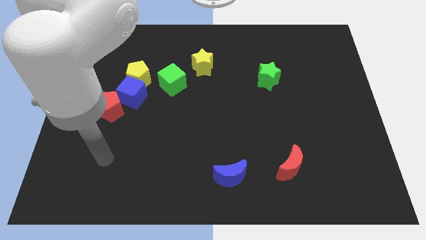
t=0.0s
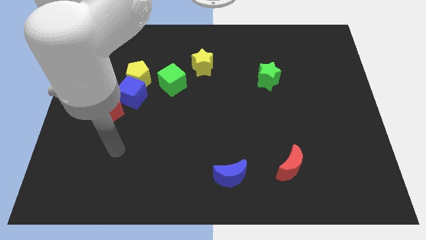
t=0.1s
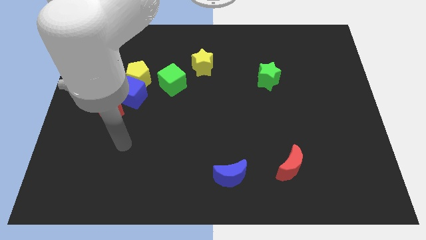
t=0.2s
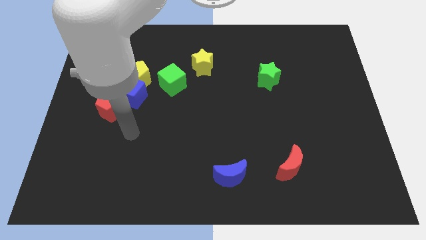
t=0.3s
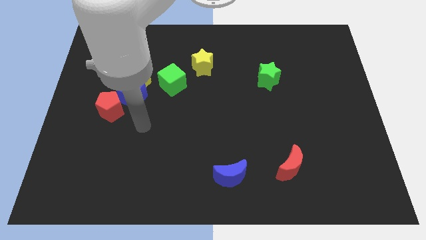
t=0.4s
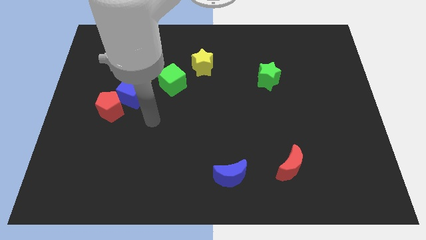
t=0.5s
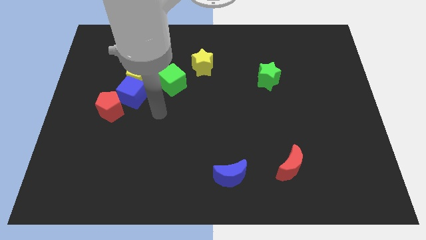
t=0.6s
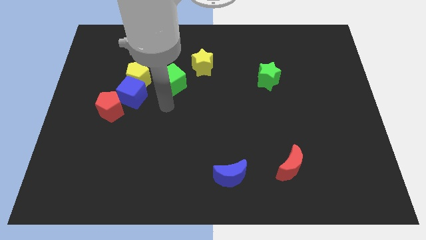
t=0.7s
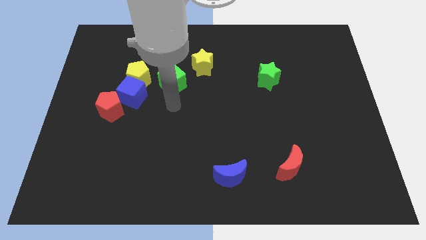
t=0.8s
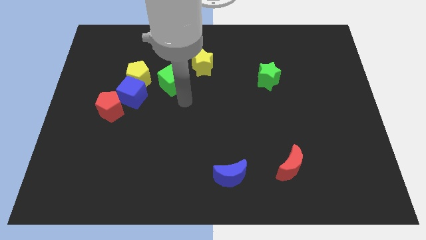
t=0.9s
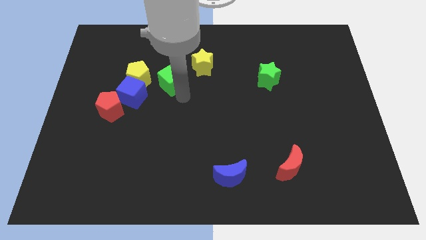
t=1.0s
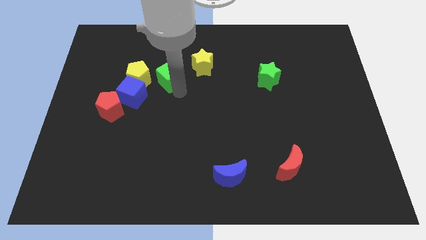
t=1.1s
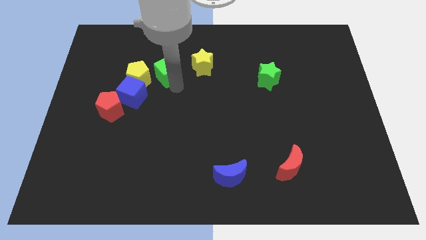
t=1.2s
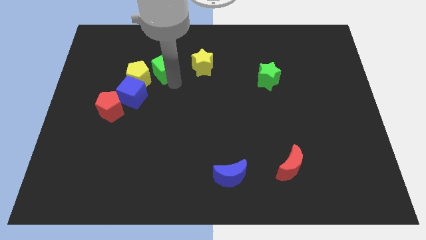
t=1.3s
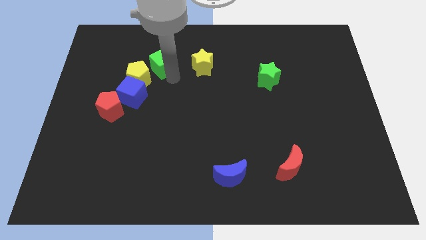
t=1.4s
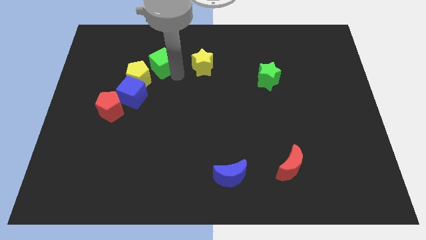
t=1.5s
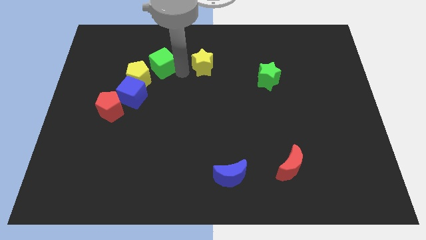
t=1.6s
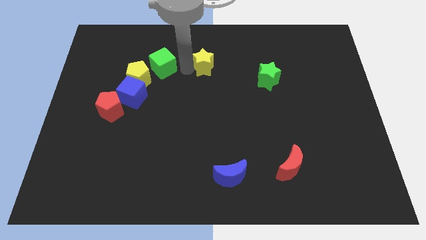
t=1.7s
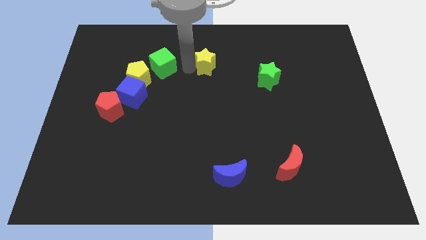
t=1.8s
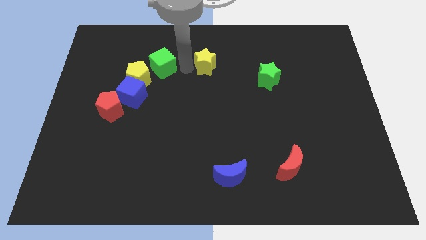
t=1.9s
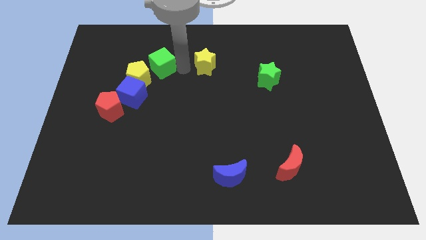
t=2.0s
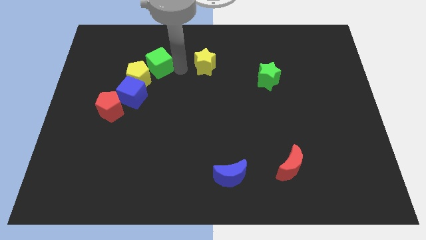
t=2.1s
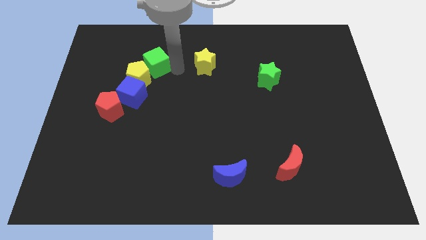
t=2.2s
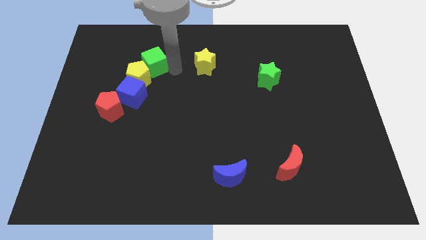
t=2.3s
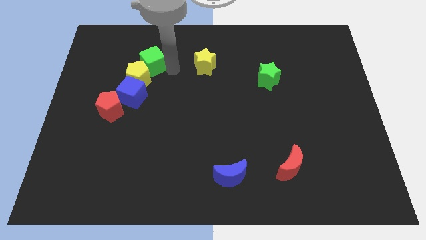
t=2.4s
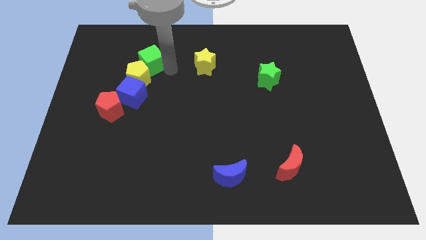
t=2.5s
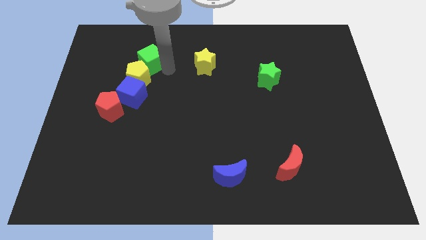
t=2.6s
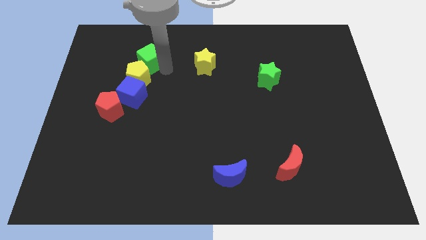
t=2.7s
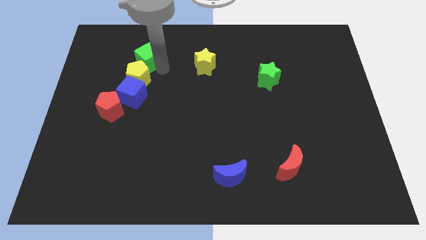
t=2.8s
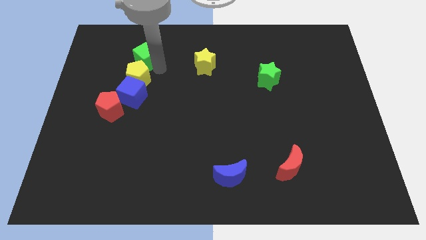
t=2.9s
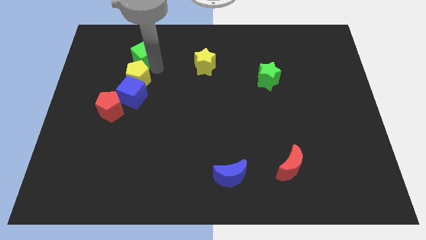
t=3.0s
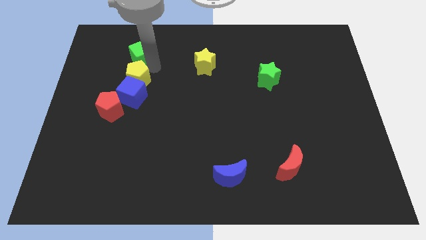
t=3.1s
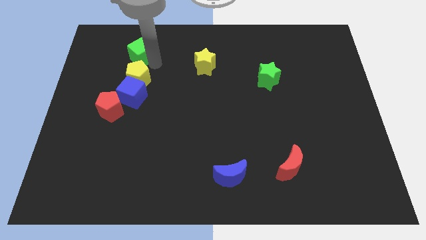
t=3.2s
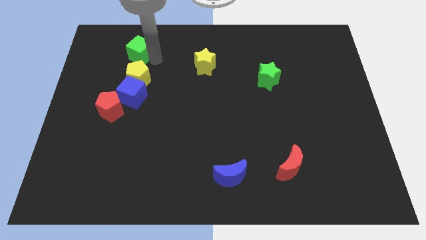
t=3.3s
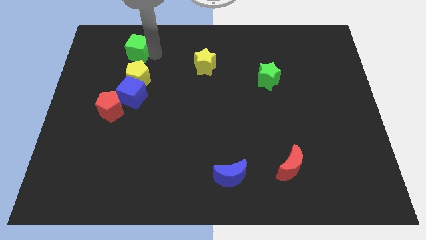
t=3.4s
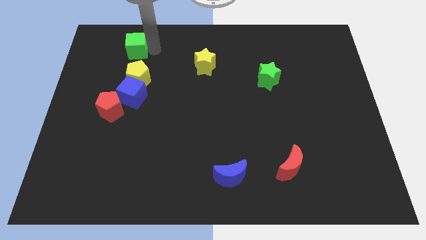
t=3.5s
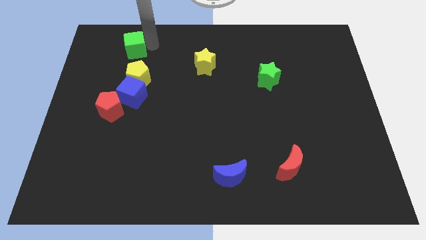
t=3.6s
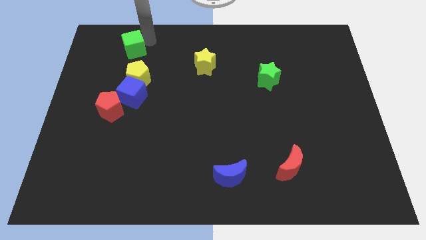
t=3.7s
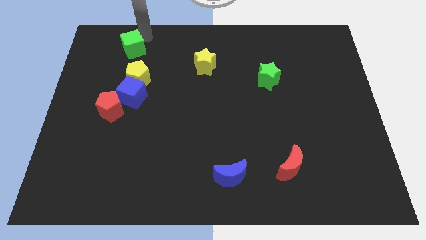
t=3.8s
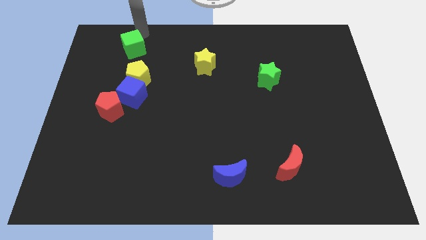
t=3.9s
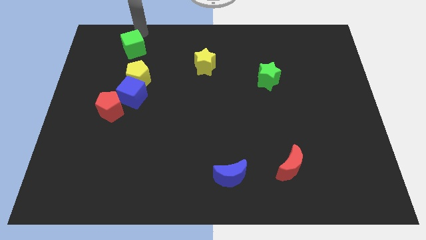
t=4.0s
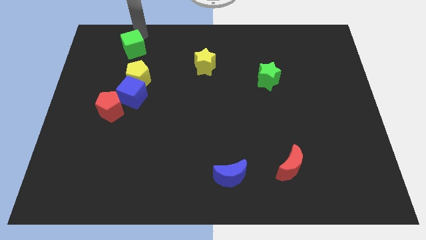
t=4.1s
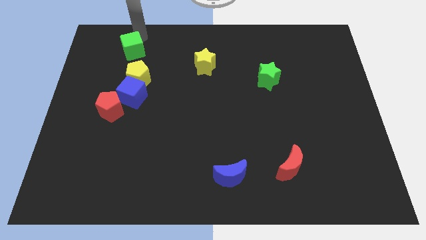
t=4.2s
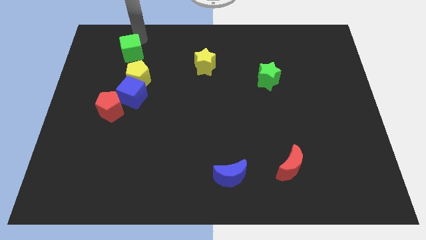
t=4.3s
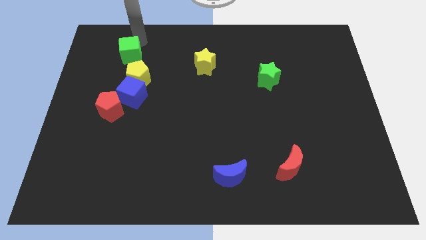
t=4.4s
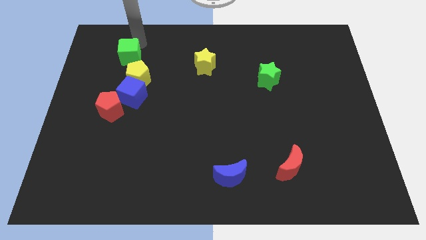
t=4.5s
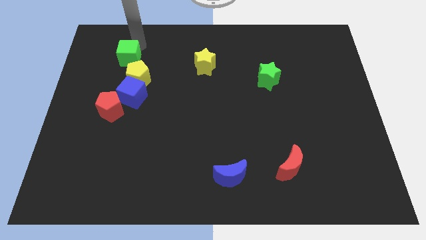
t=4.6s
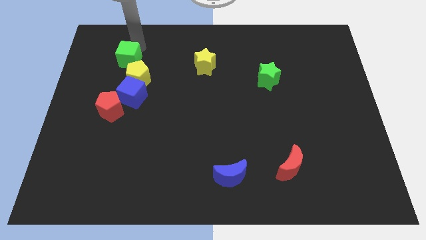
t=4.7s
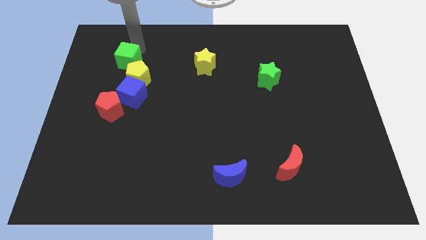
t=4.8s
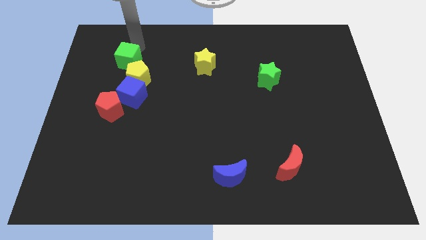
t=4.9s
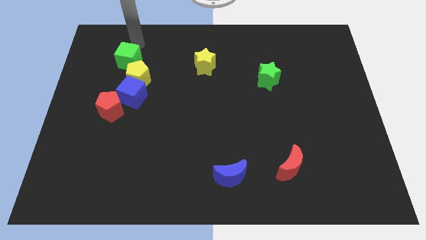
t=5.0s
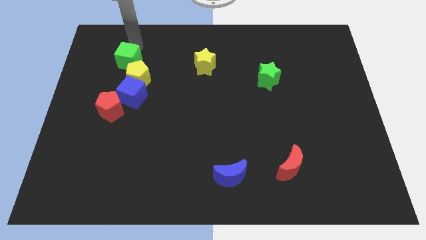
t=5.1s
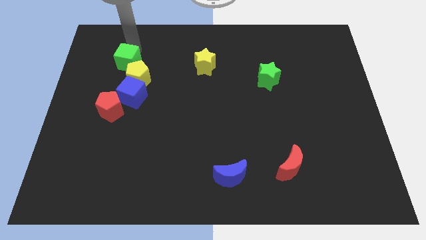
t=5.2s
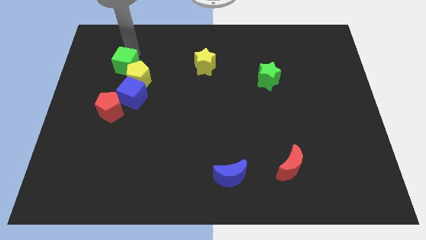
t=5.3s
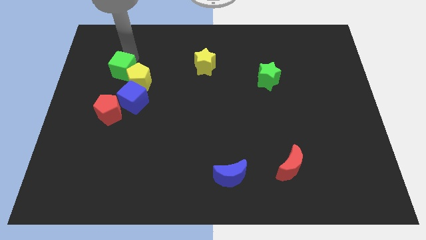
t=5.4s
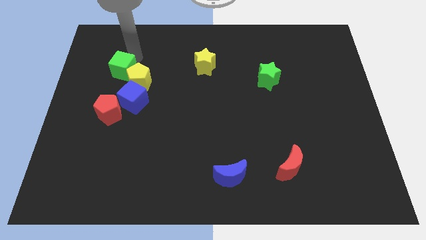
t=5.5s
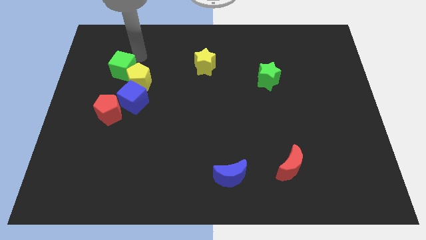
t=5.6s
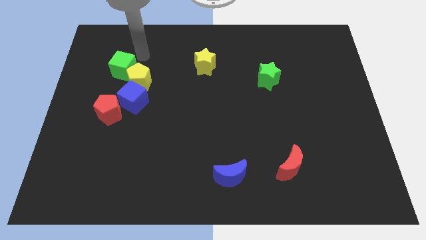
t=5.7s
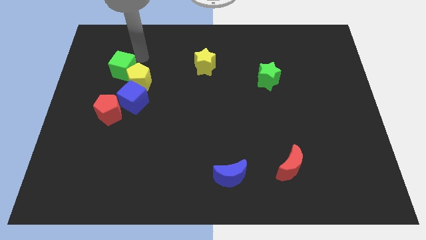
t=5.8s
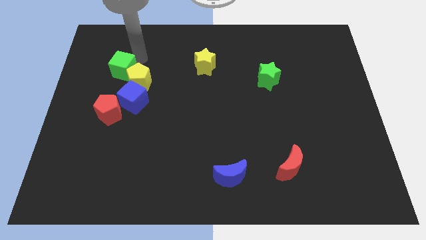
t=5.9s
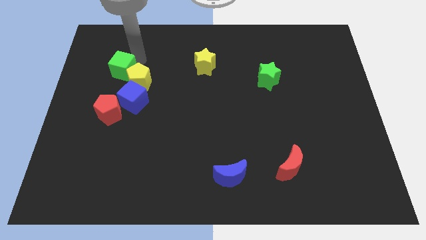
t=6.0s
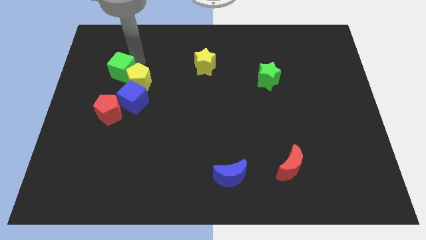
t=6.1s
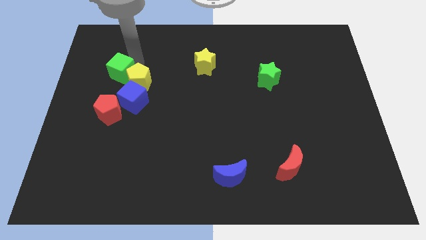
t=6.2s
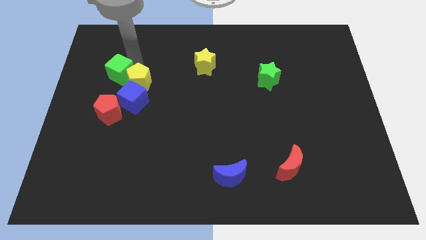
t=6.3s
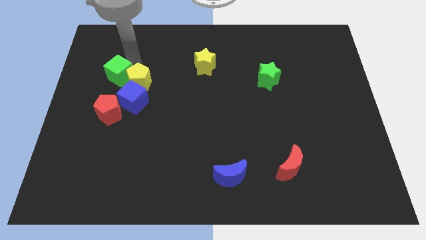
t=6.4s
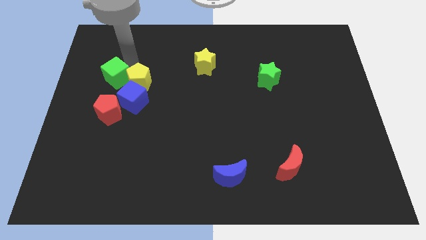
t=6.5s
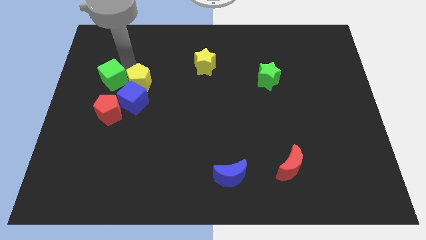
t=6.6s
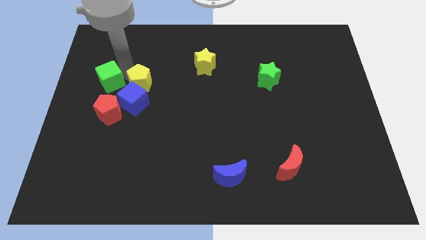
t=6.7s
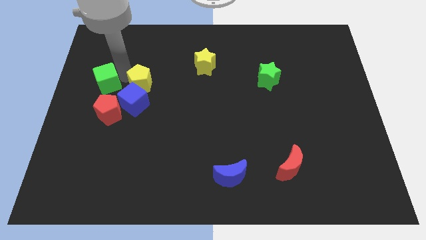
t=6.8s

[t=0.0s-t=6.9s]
move the green cube to the left side of the board

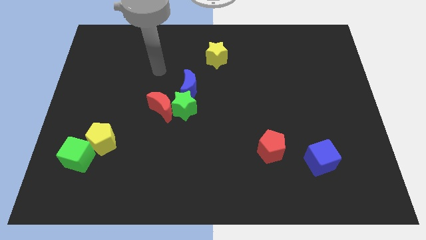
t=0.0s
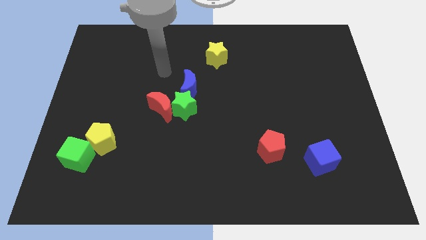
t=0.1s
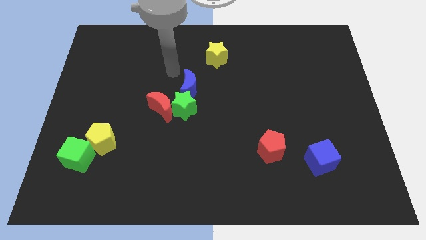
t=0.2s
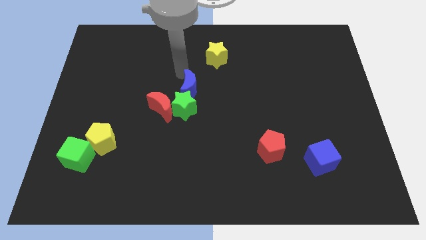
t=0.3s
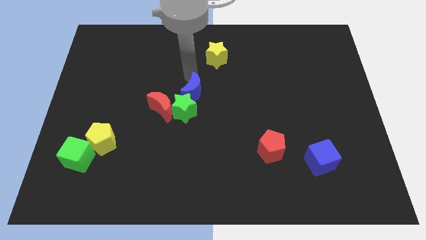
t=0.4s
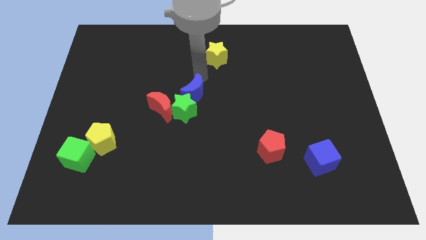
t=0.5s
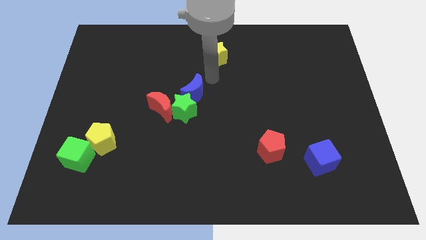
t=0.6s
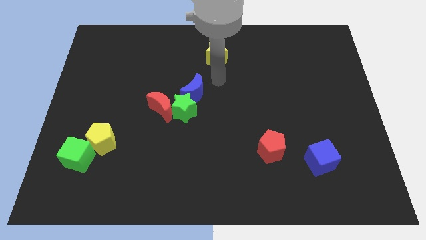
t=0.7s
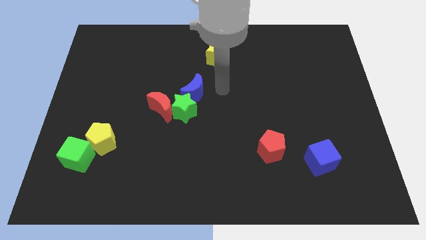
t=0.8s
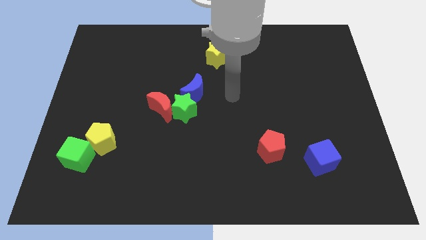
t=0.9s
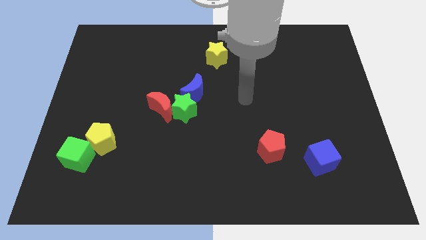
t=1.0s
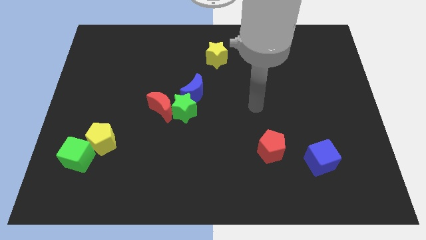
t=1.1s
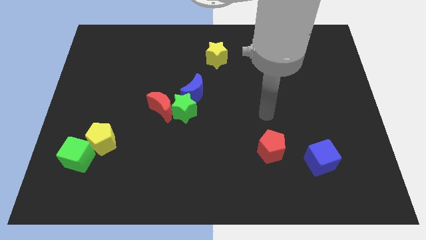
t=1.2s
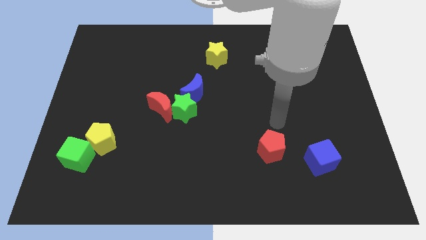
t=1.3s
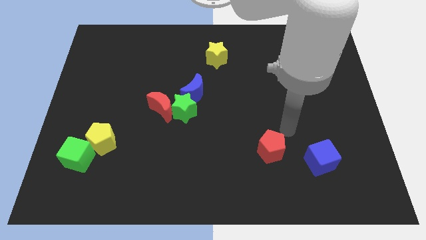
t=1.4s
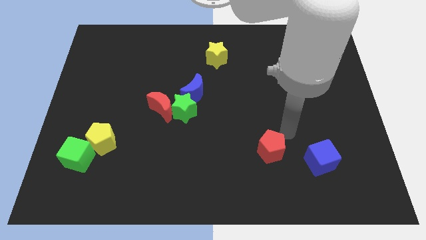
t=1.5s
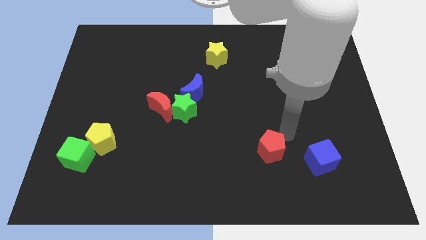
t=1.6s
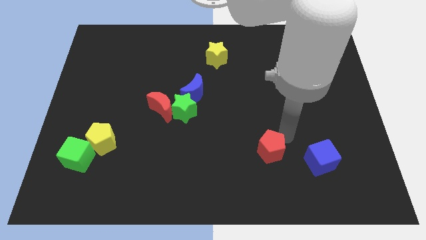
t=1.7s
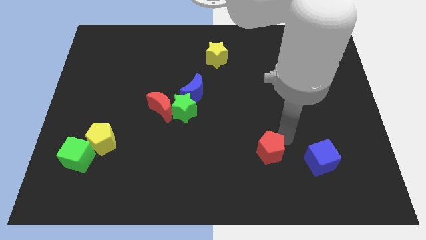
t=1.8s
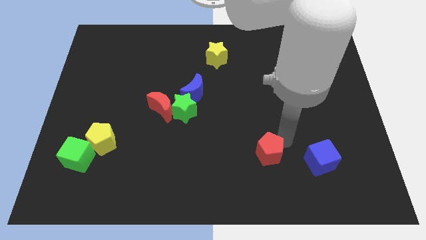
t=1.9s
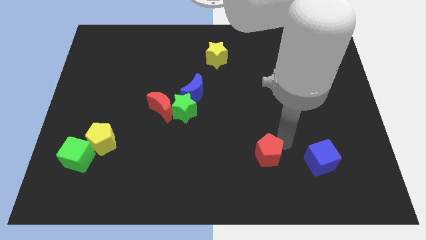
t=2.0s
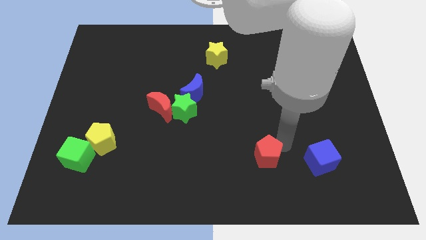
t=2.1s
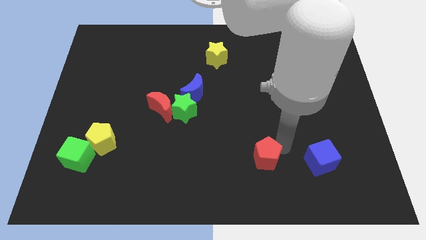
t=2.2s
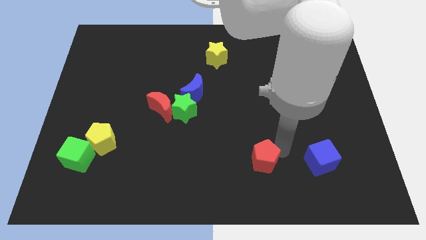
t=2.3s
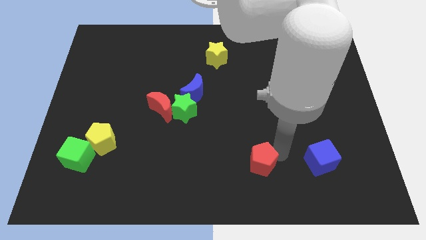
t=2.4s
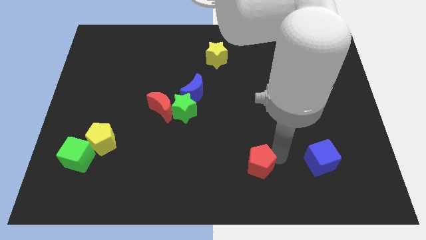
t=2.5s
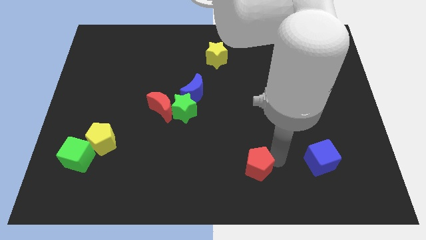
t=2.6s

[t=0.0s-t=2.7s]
move the red pentagon to the bottom
